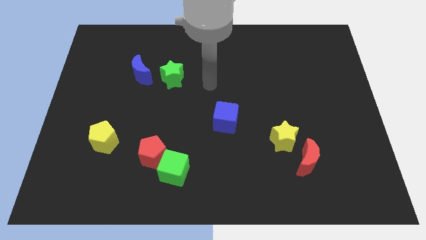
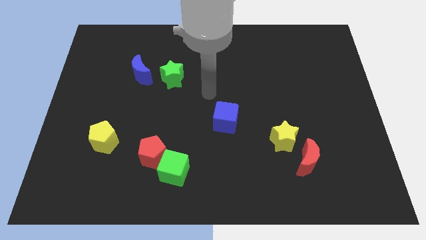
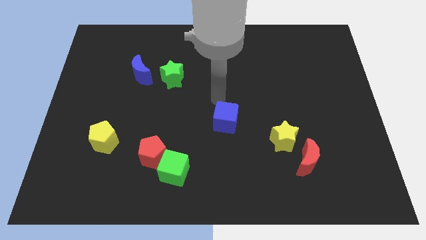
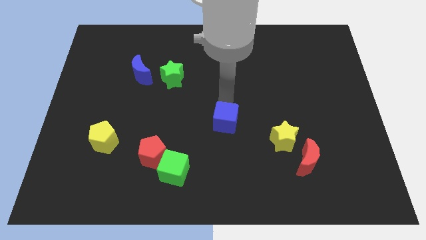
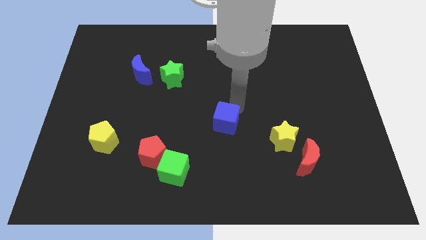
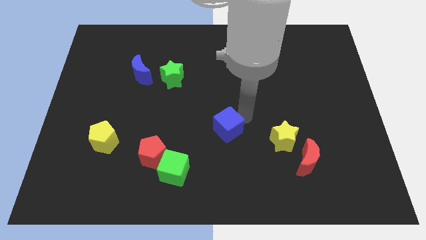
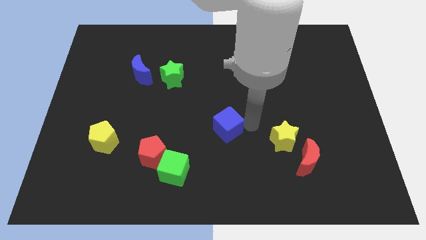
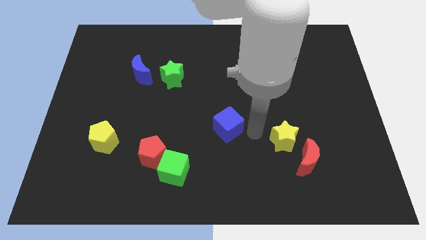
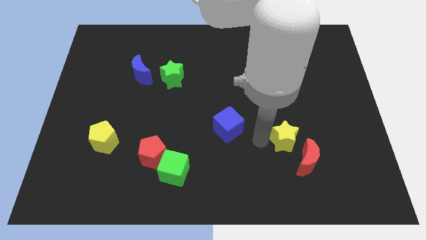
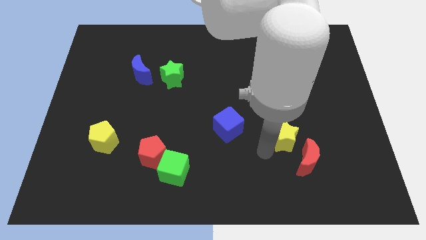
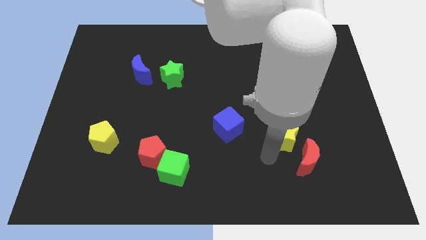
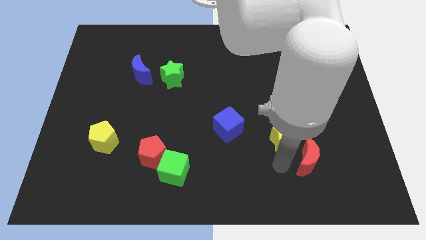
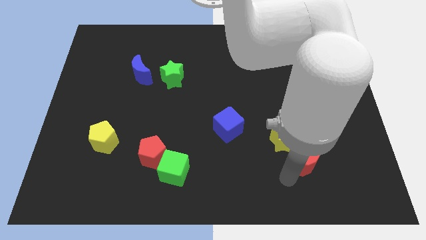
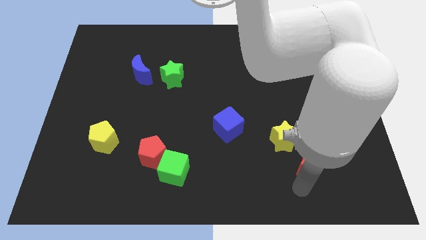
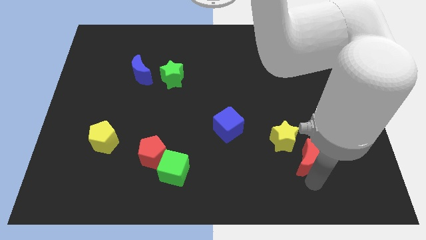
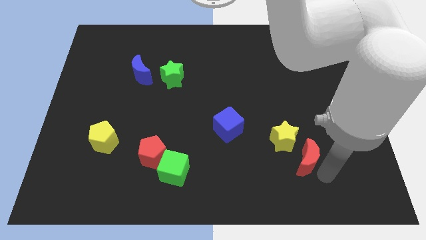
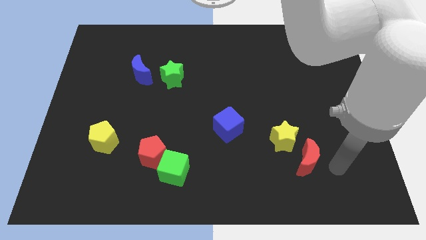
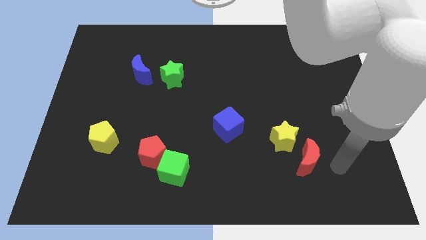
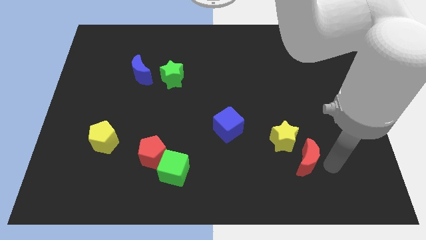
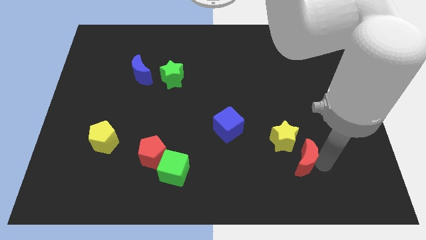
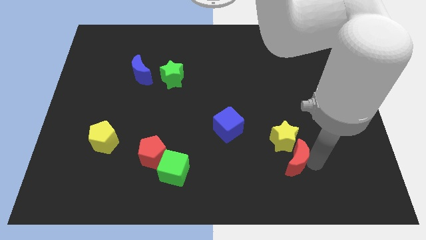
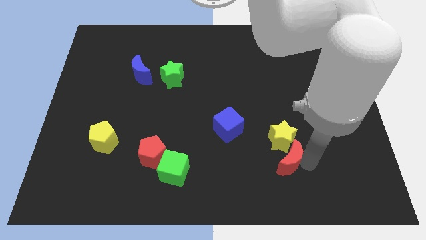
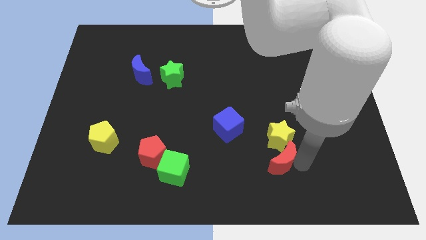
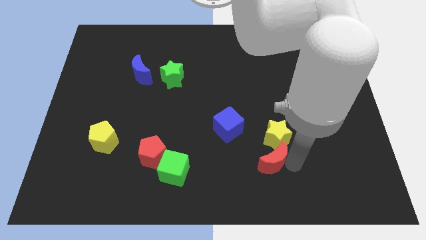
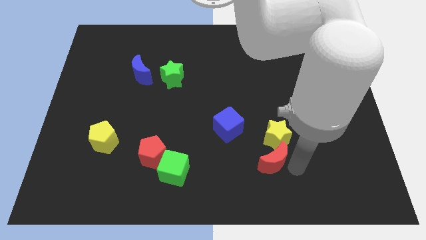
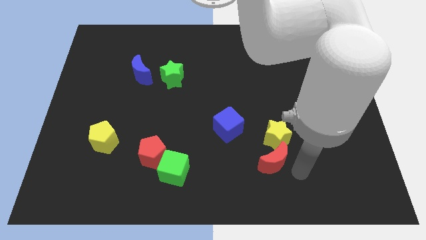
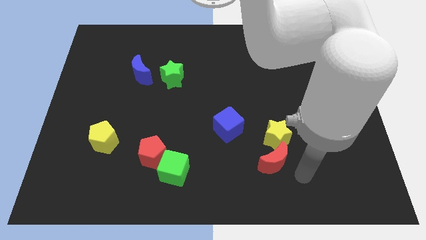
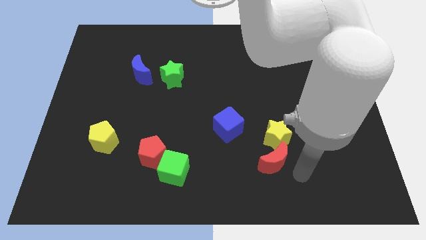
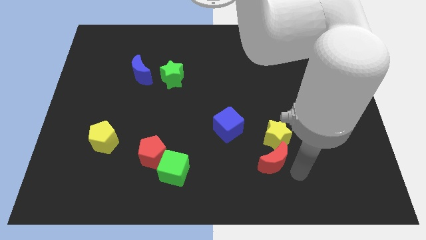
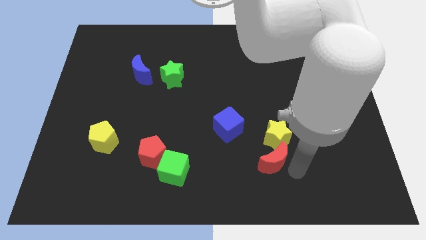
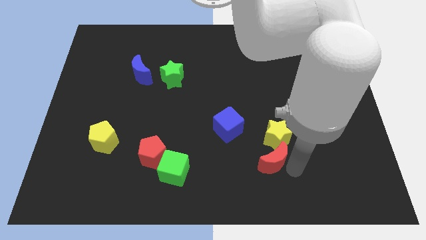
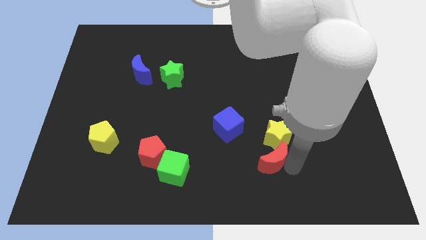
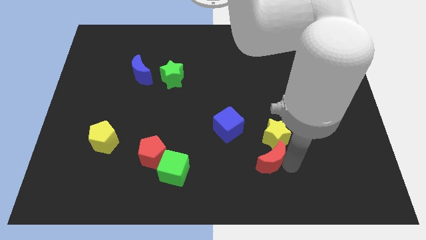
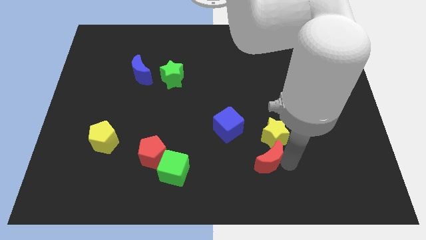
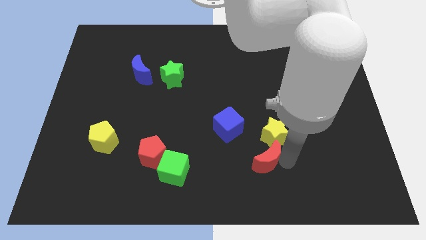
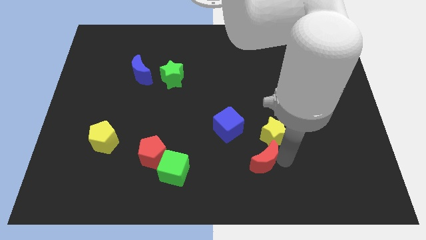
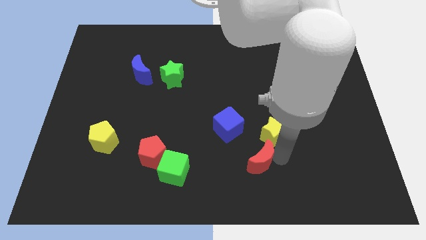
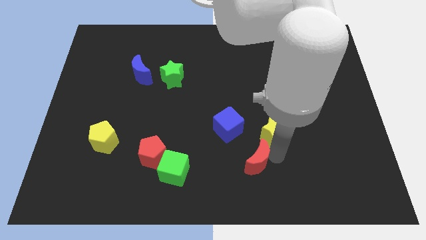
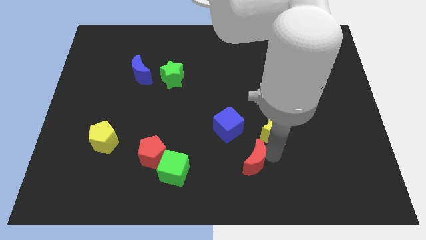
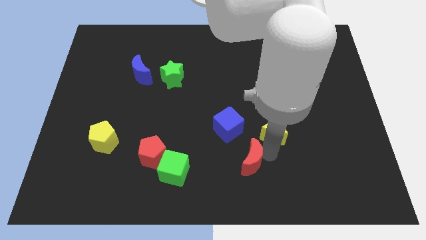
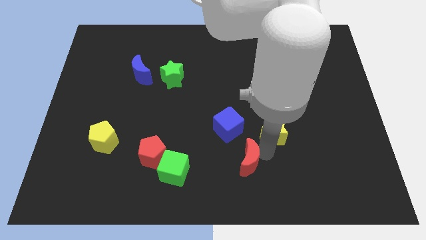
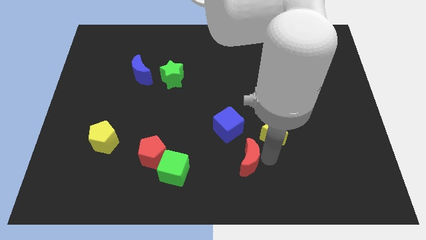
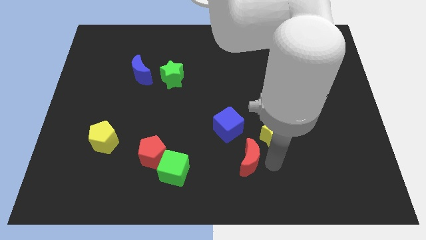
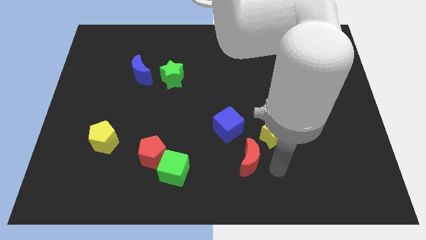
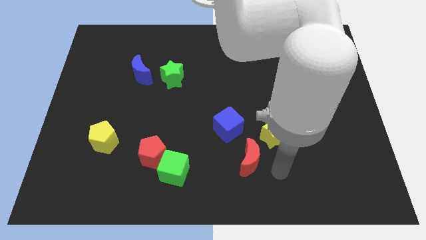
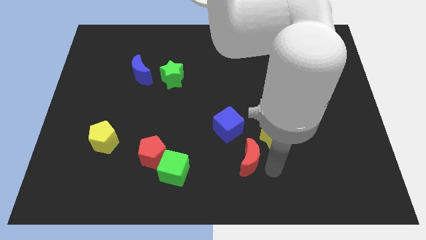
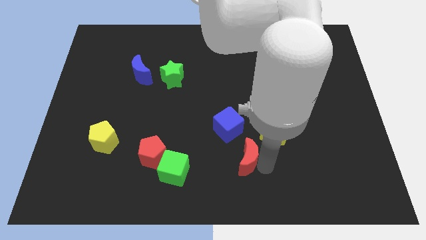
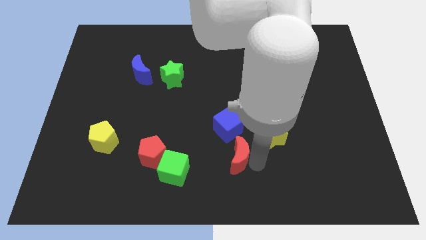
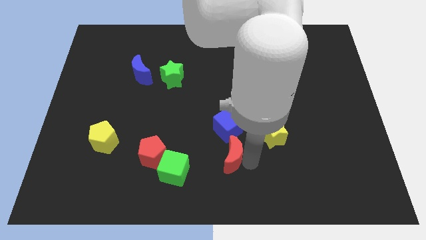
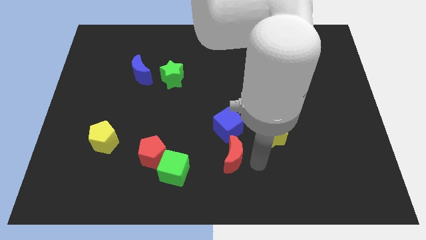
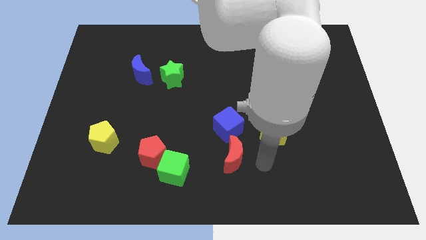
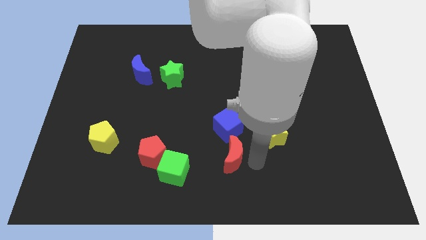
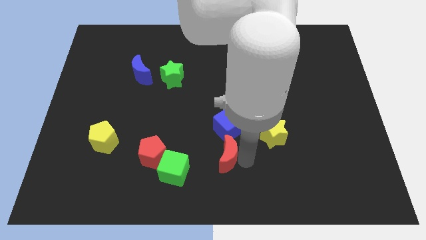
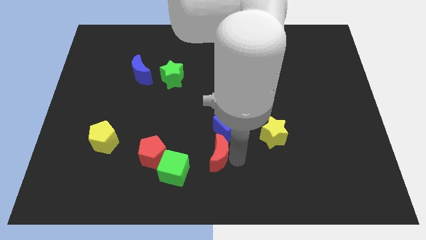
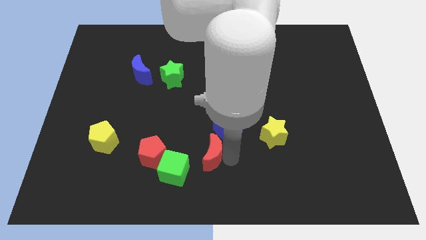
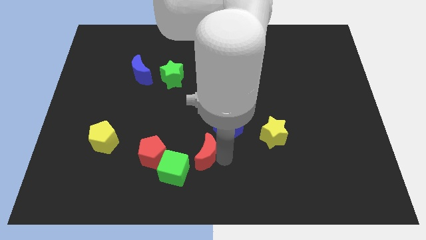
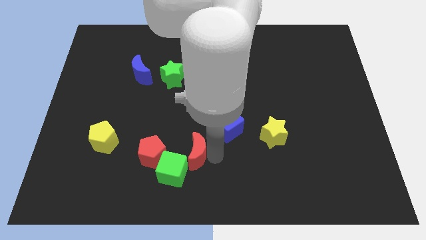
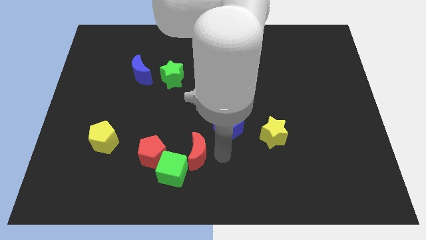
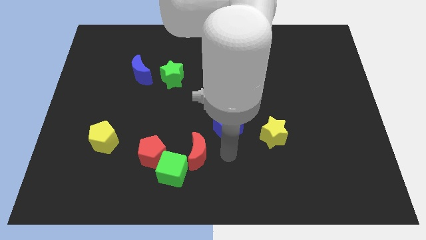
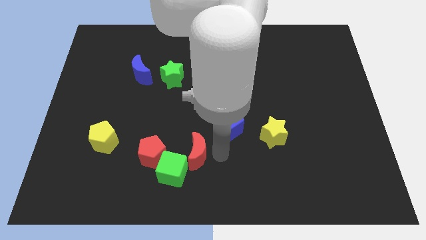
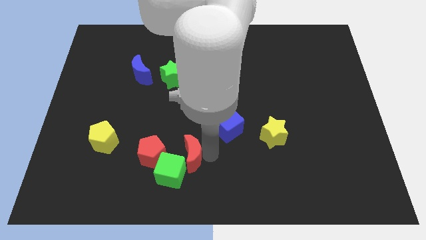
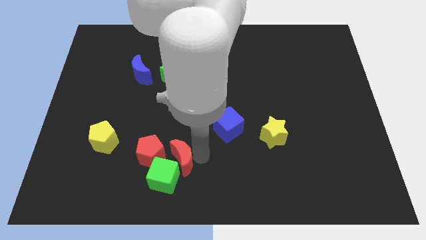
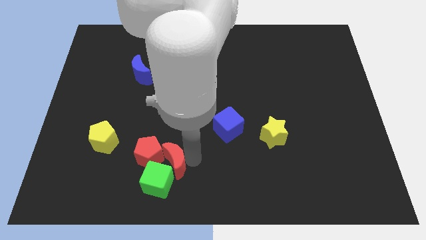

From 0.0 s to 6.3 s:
move the red moon next to the red pentagon
